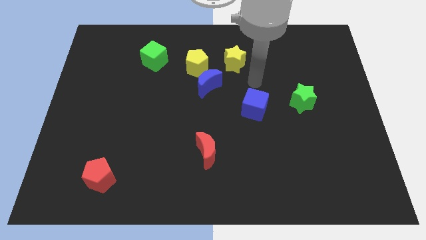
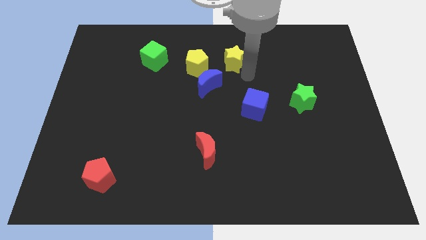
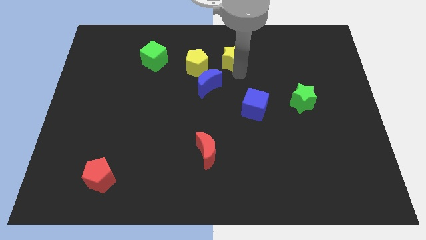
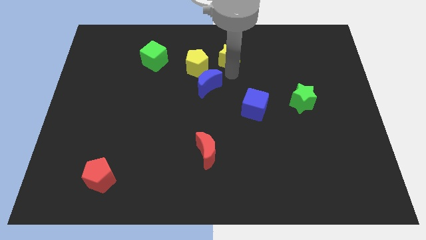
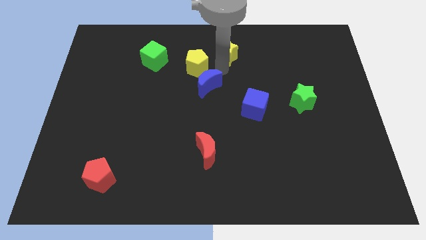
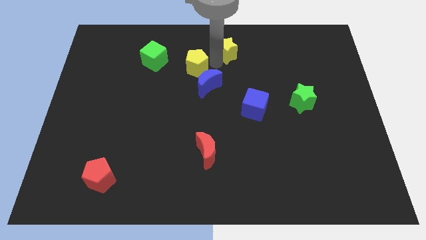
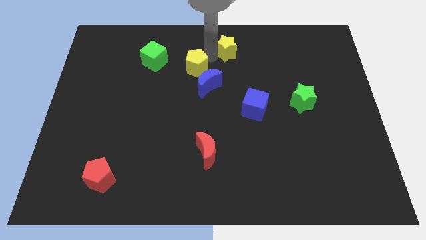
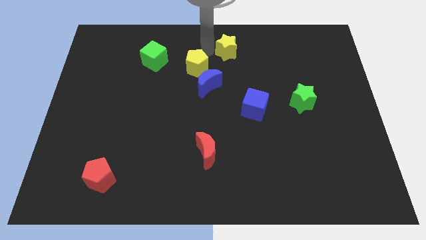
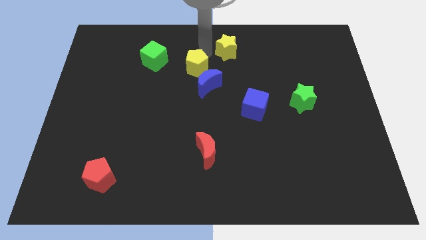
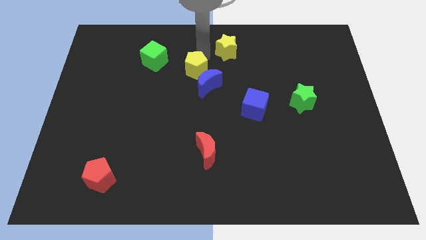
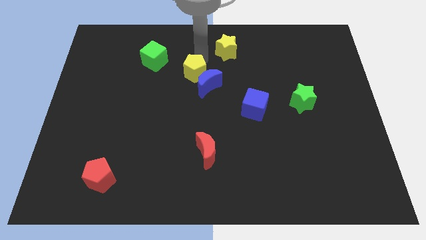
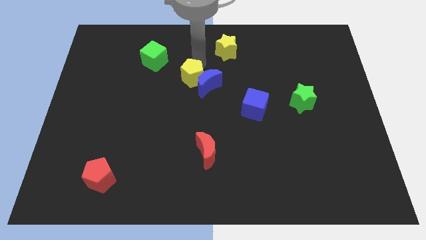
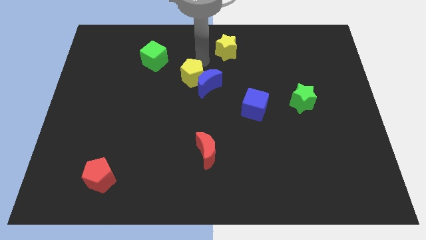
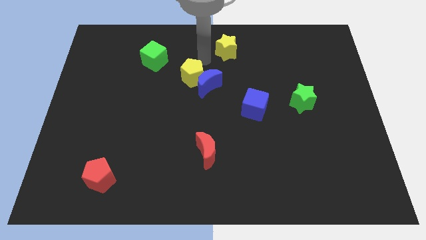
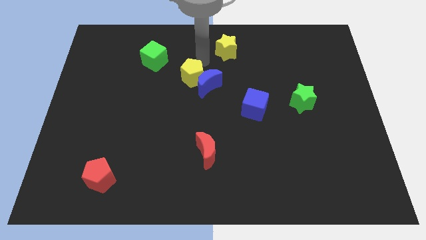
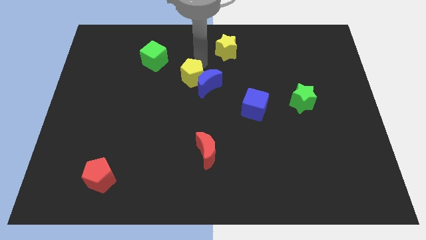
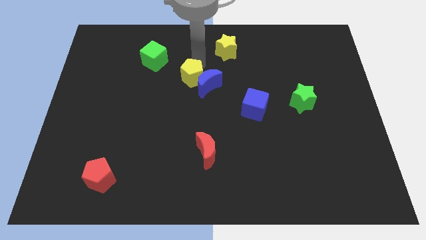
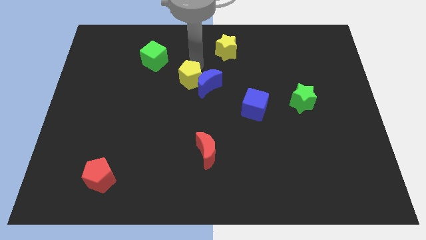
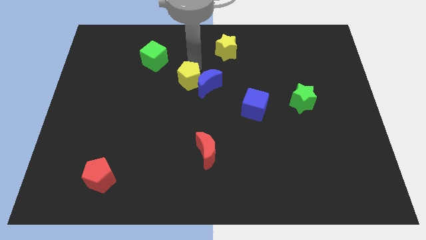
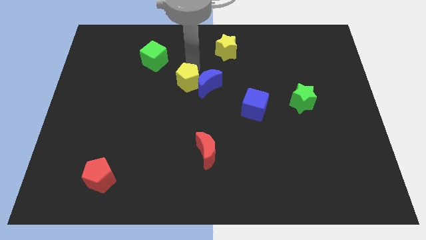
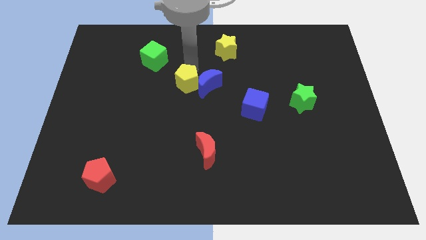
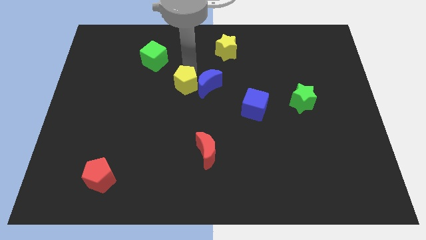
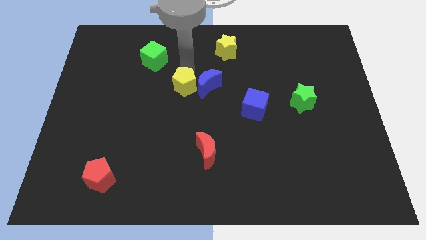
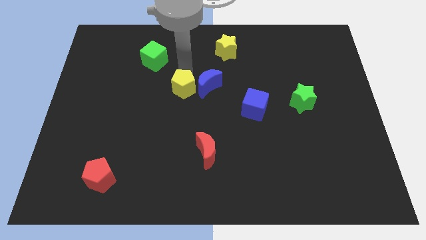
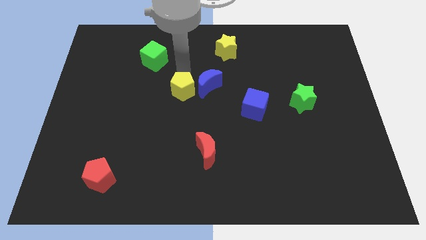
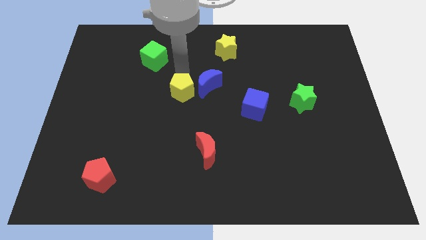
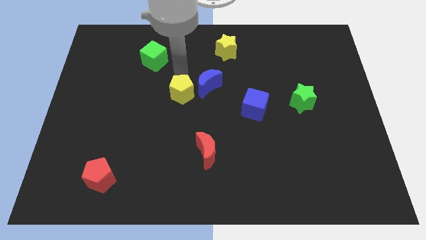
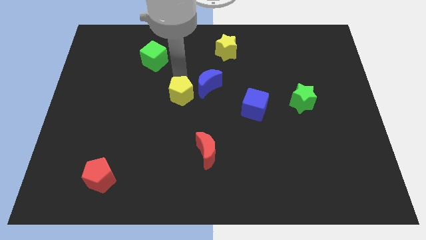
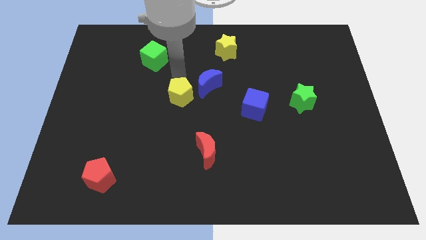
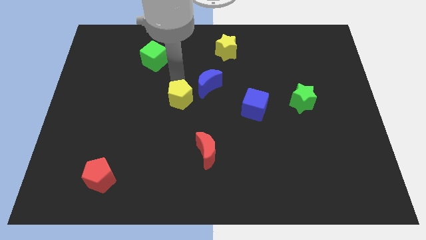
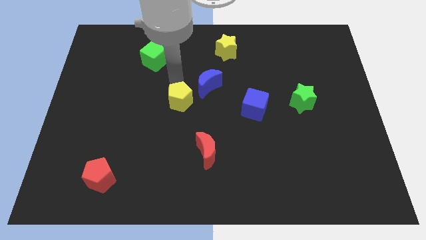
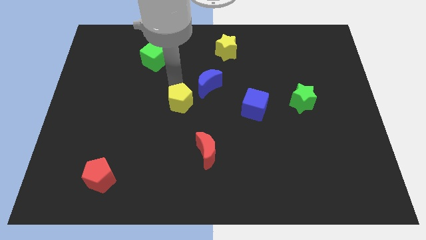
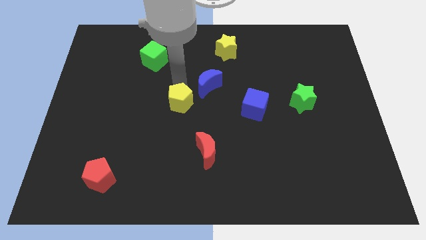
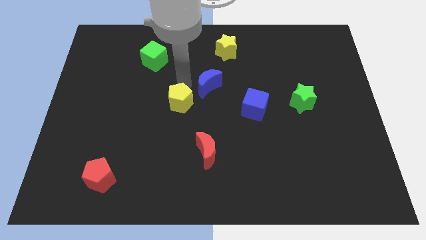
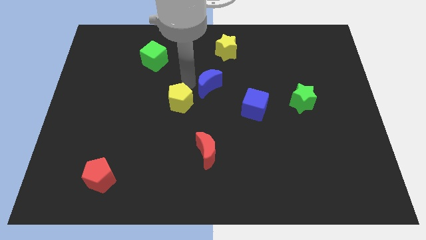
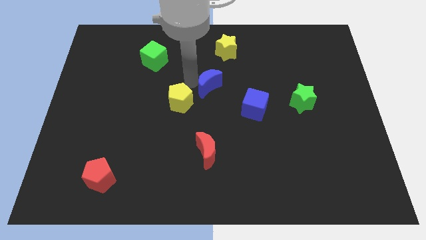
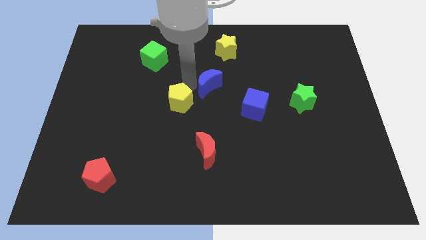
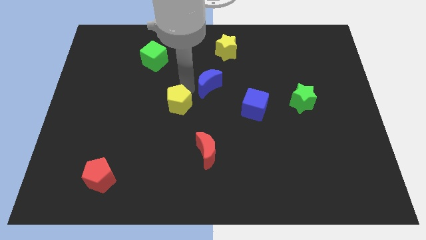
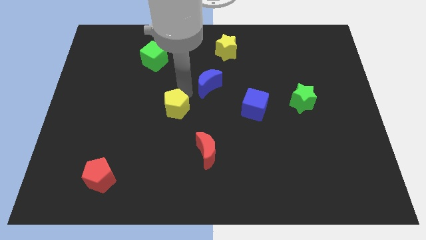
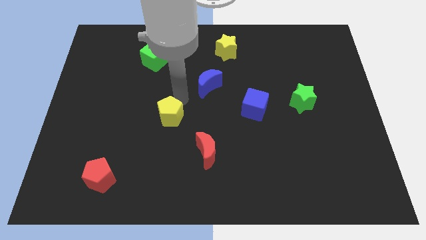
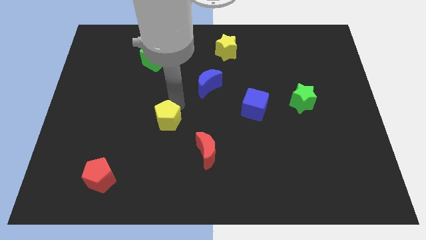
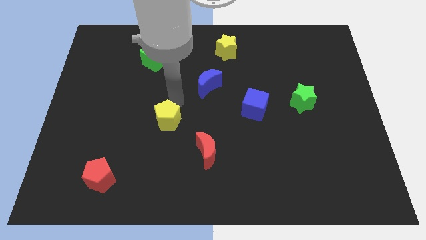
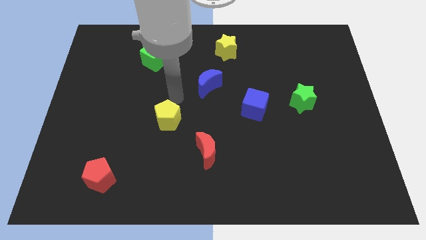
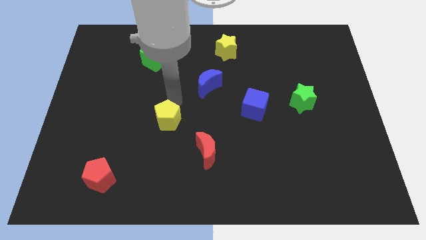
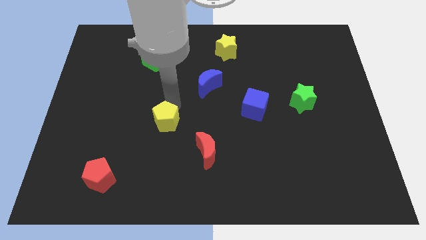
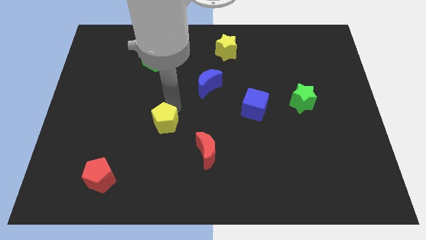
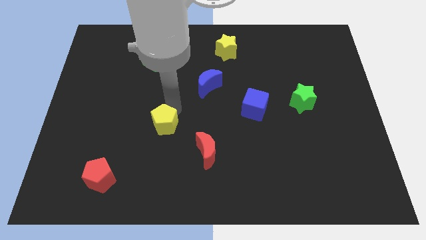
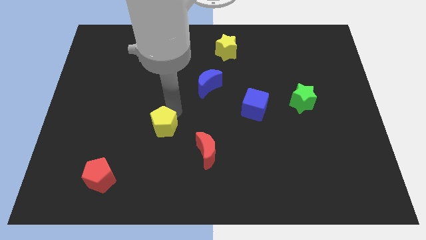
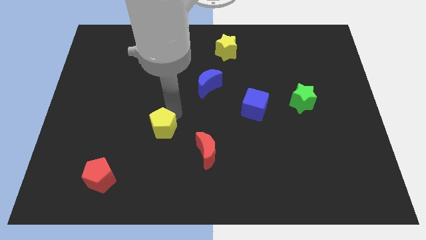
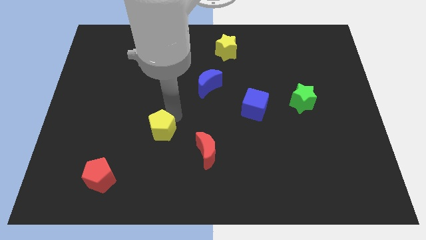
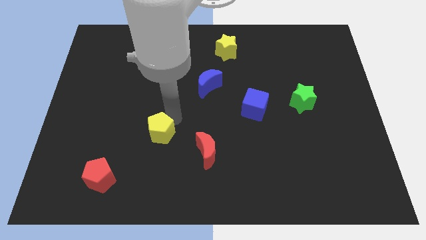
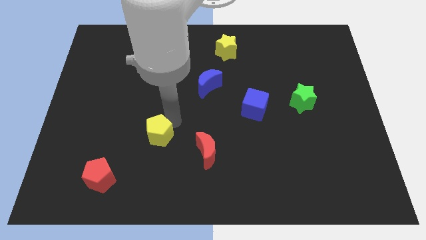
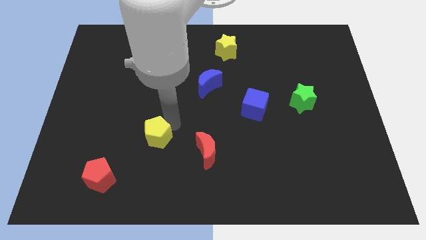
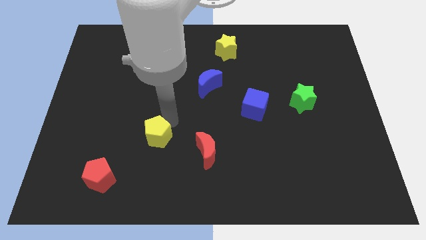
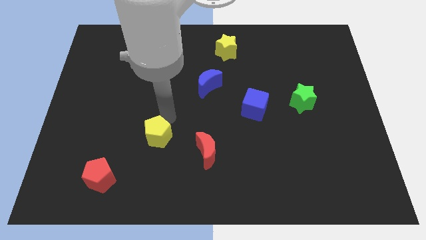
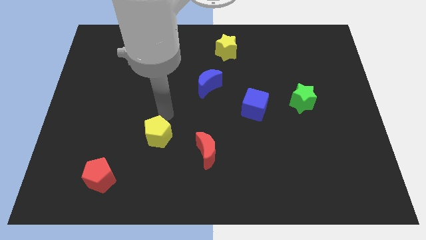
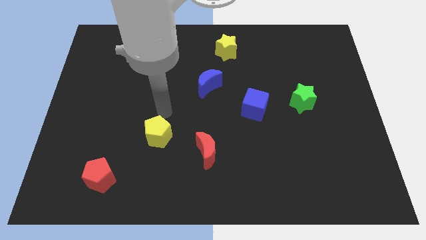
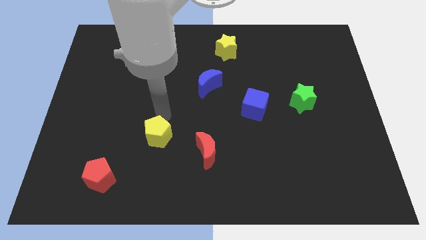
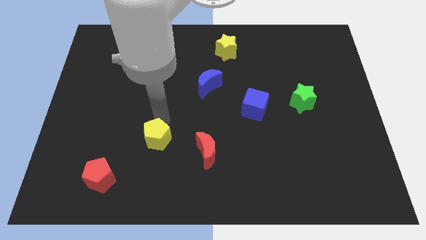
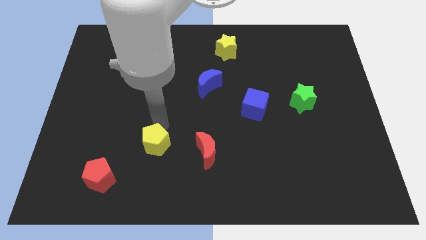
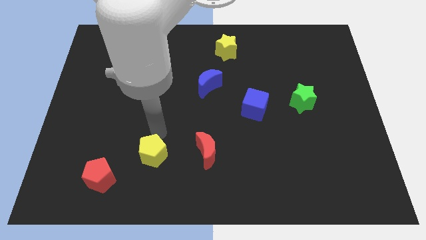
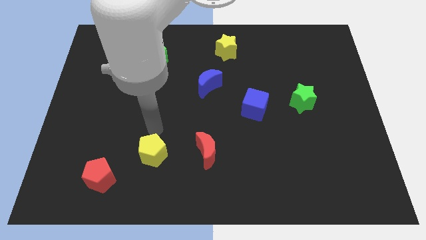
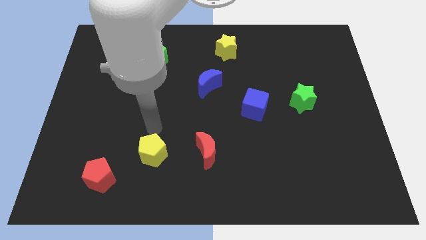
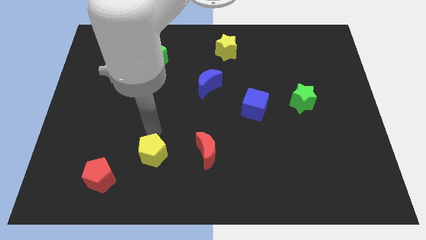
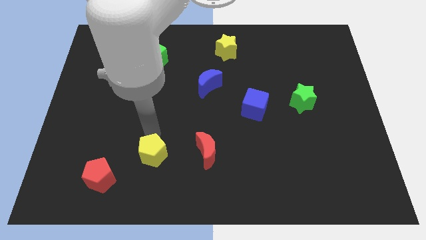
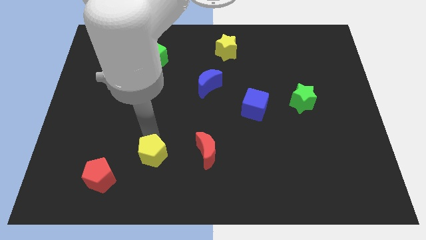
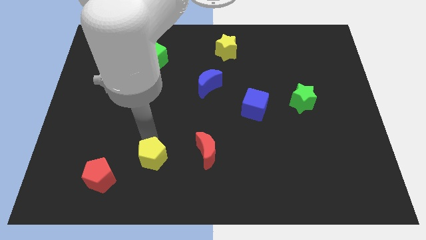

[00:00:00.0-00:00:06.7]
slide the yellow pentagon to the right of the red pentagon

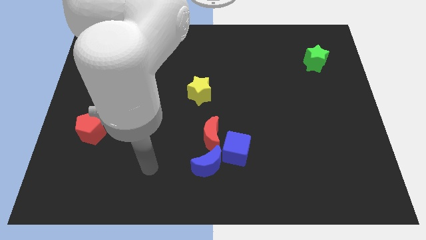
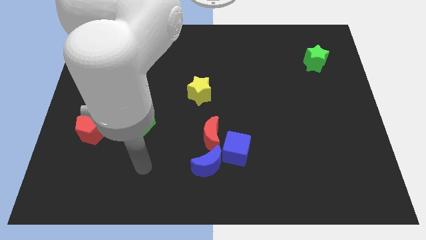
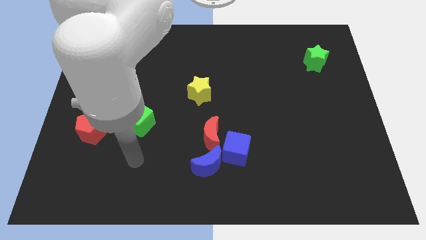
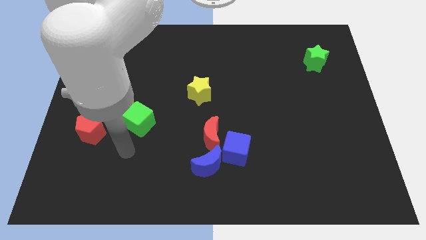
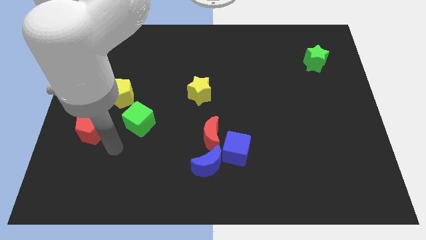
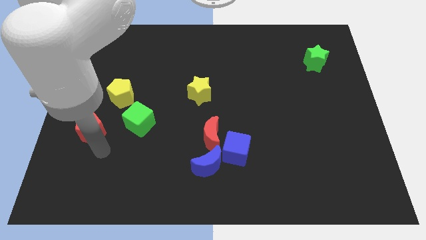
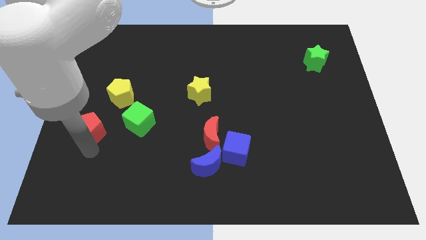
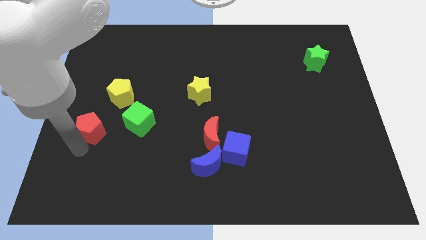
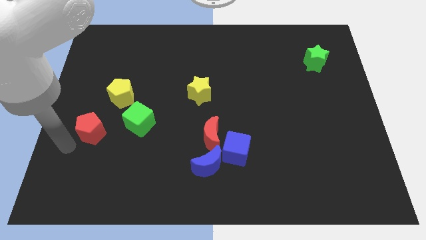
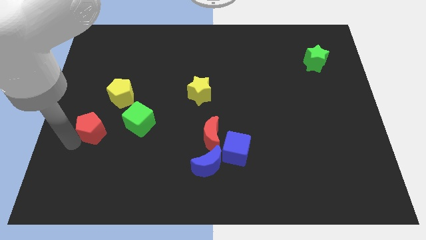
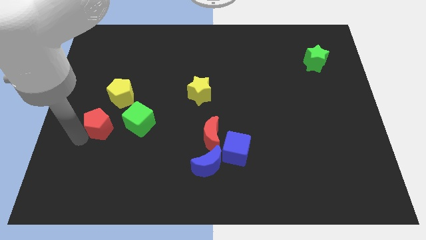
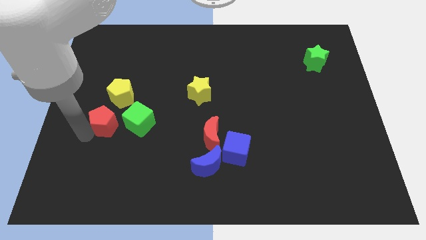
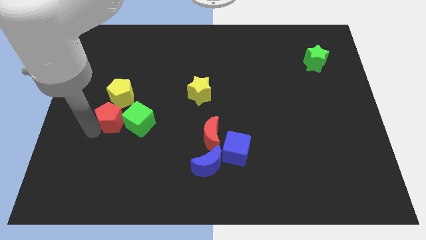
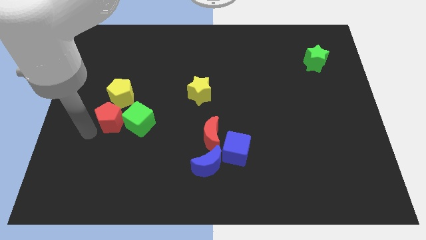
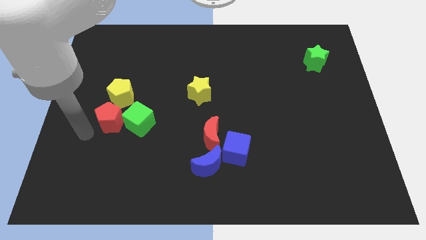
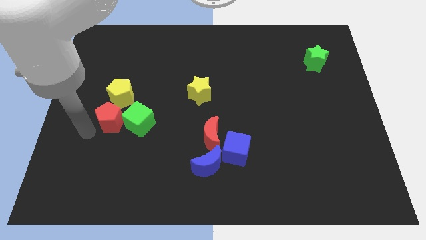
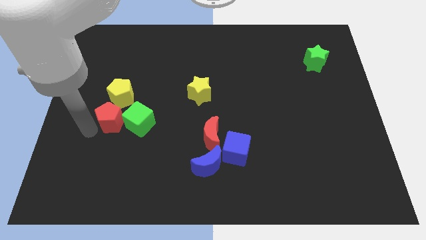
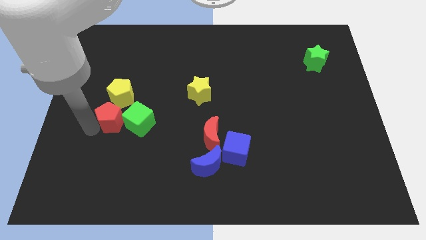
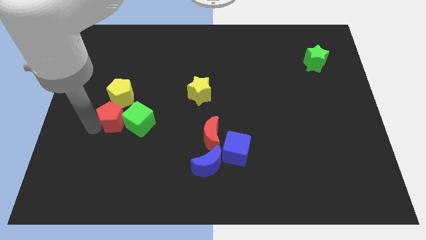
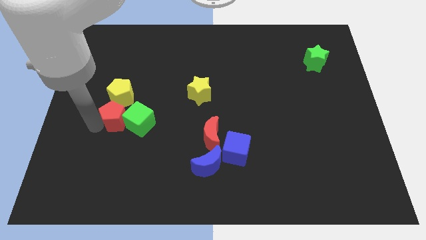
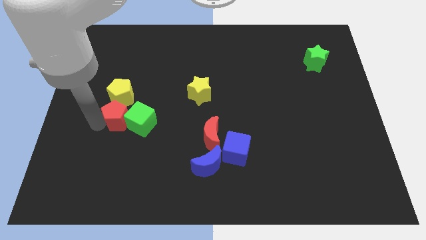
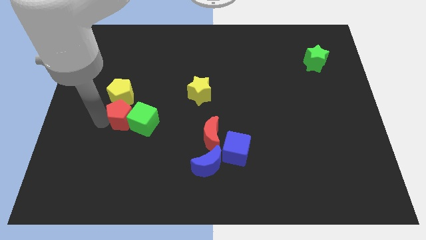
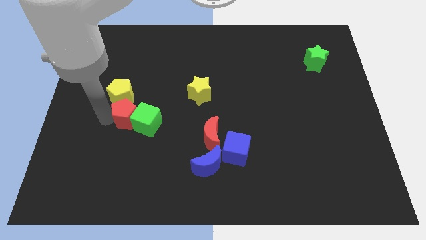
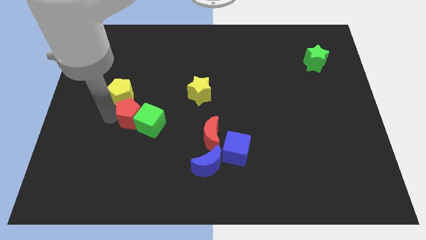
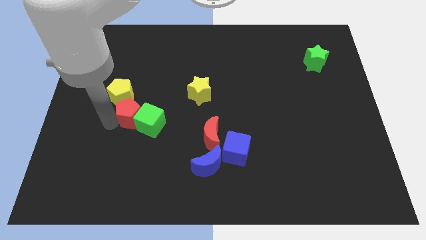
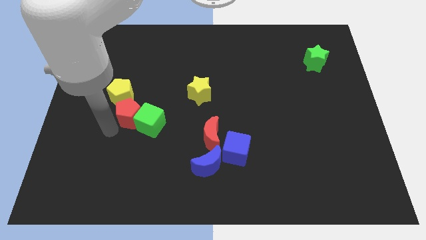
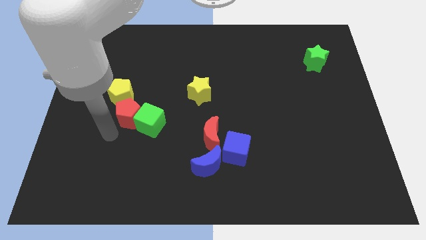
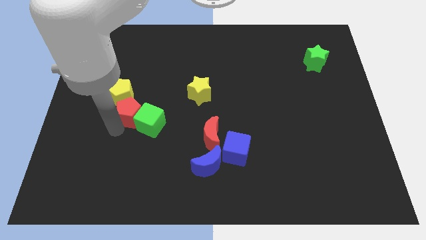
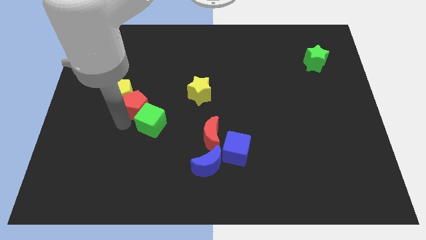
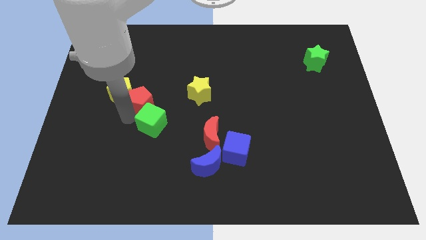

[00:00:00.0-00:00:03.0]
push the red pentagon to the left side of the yellow star
